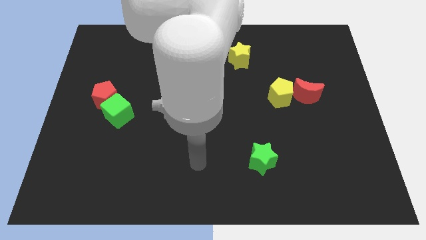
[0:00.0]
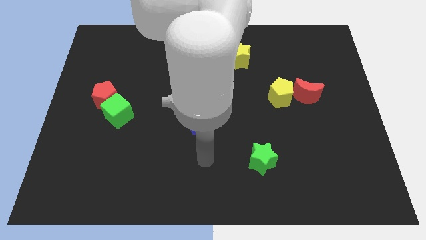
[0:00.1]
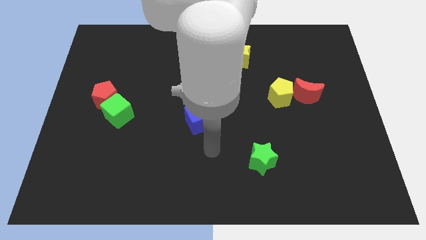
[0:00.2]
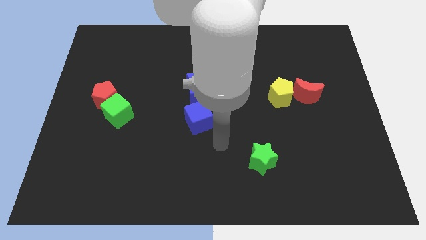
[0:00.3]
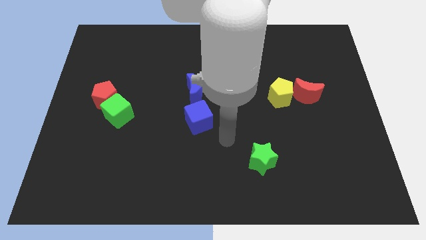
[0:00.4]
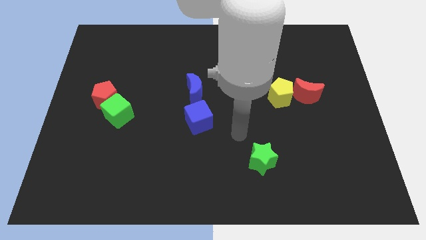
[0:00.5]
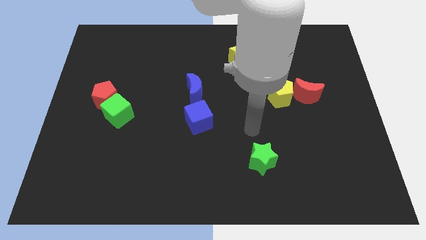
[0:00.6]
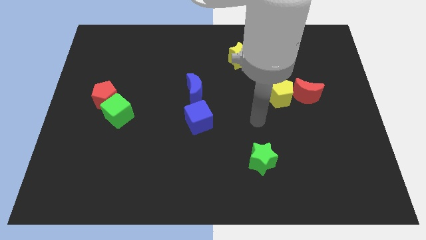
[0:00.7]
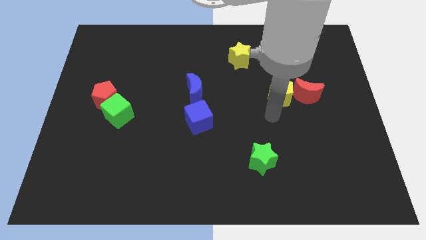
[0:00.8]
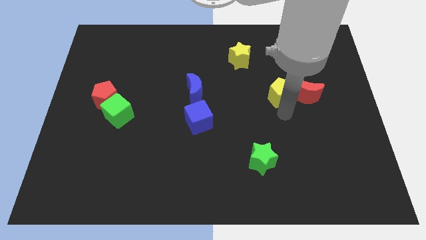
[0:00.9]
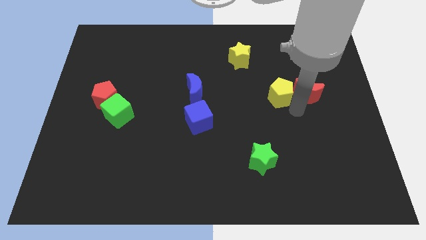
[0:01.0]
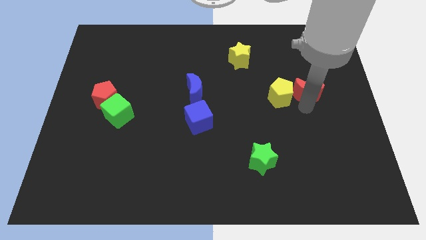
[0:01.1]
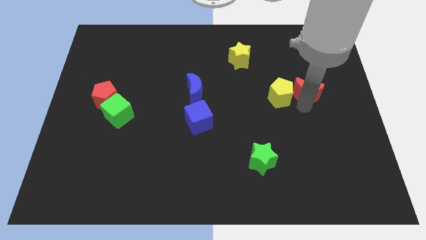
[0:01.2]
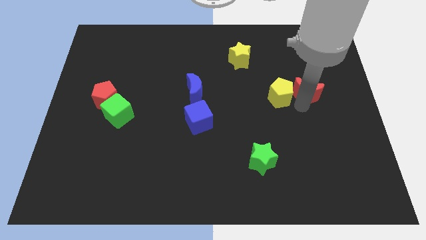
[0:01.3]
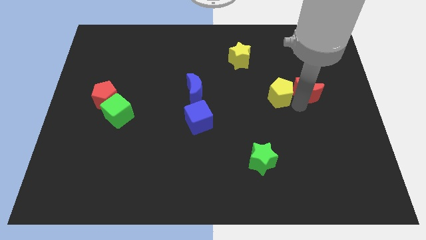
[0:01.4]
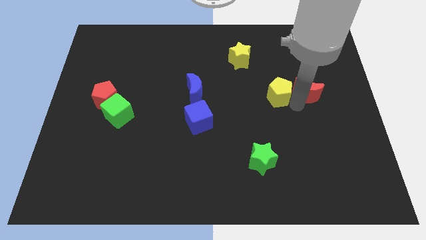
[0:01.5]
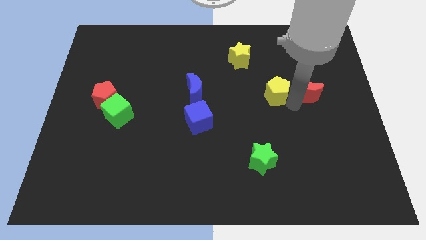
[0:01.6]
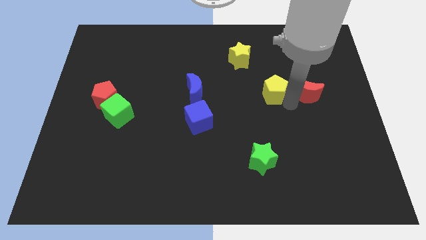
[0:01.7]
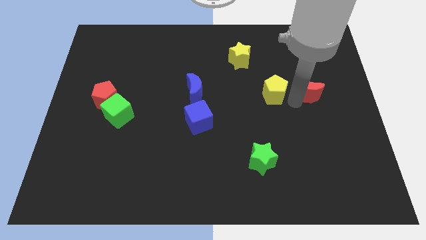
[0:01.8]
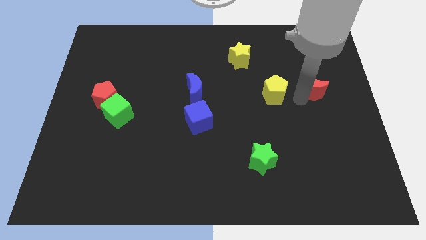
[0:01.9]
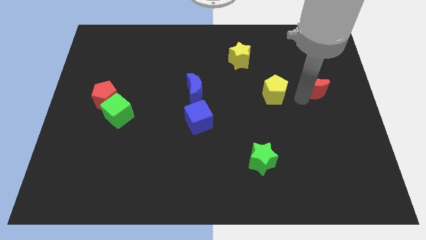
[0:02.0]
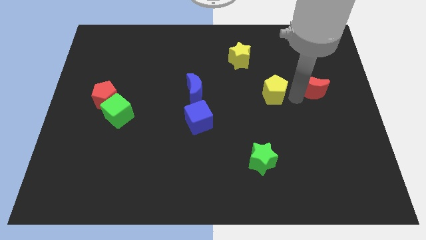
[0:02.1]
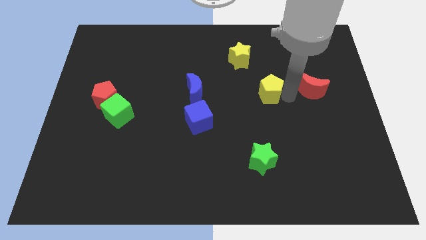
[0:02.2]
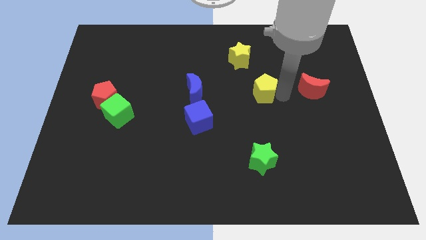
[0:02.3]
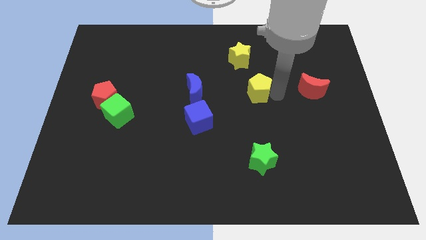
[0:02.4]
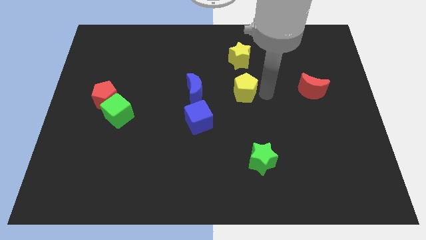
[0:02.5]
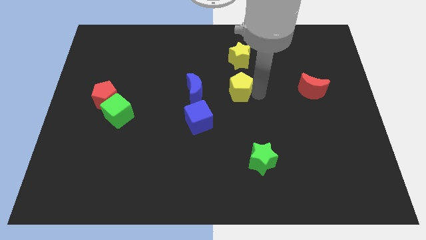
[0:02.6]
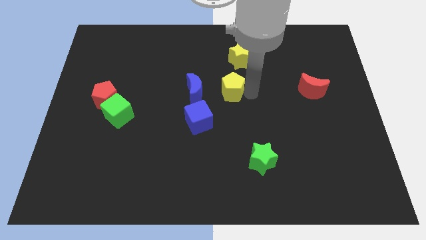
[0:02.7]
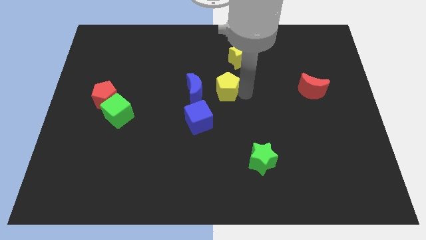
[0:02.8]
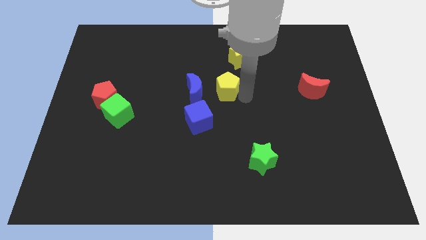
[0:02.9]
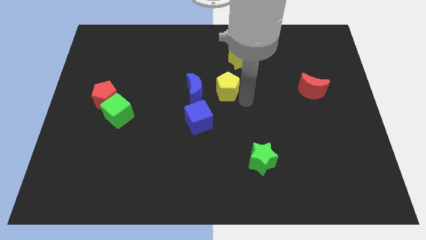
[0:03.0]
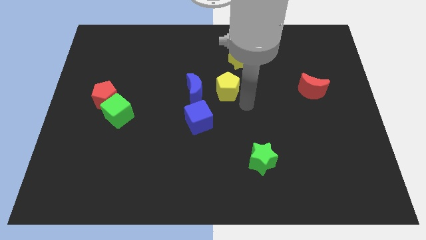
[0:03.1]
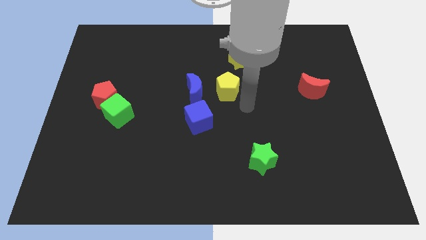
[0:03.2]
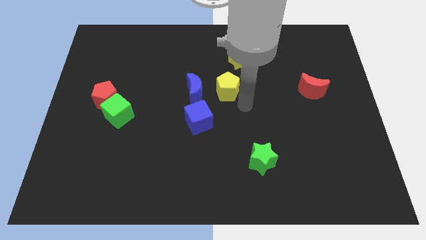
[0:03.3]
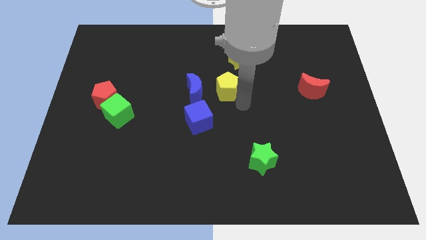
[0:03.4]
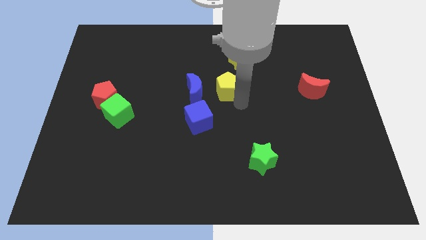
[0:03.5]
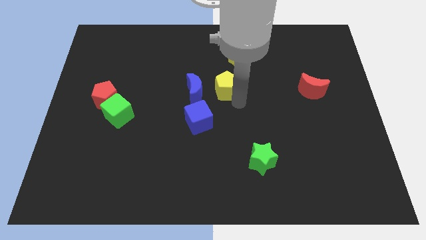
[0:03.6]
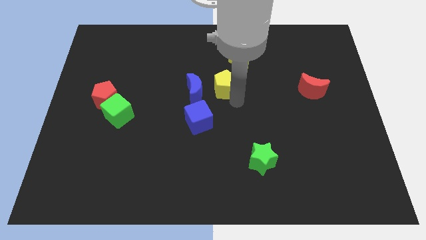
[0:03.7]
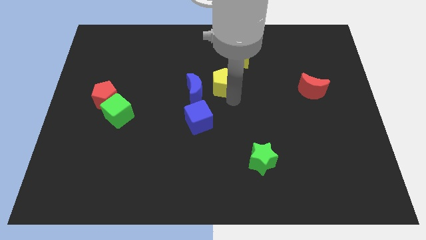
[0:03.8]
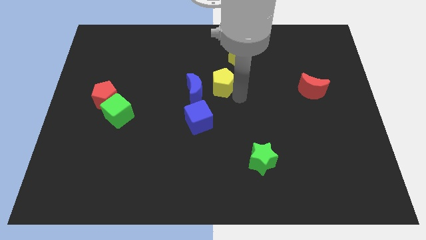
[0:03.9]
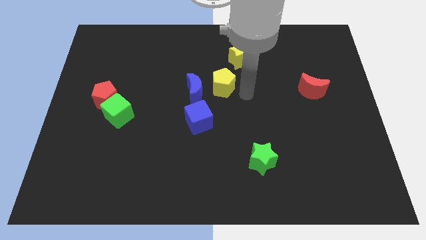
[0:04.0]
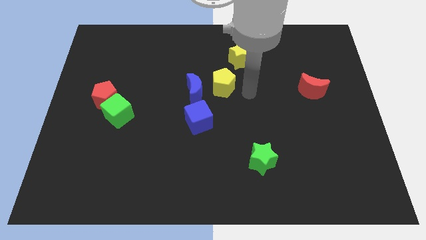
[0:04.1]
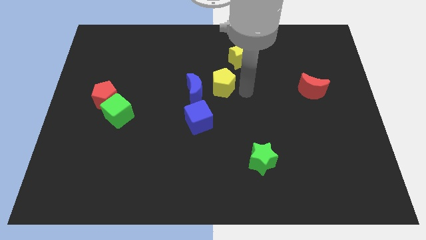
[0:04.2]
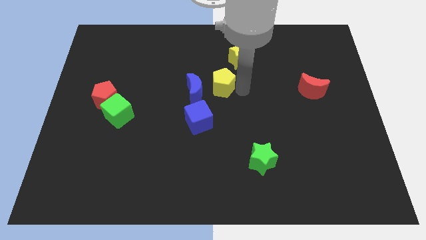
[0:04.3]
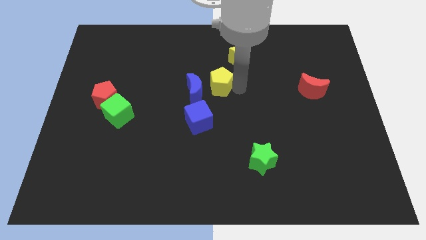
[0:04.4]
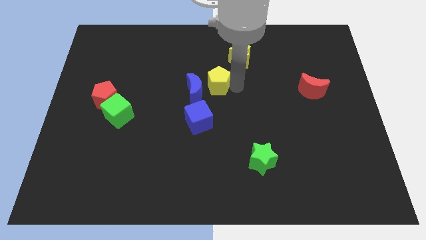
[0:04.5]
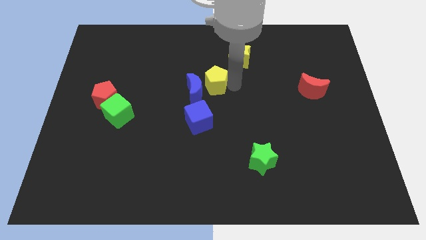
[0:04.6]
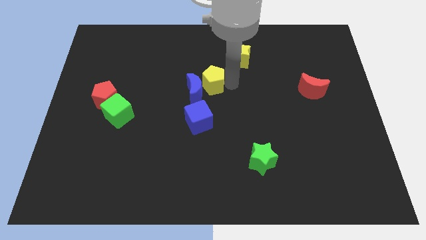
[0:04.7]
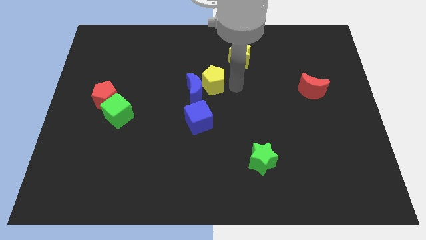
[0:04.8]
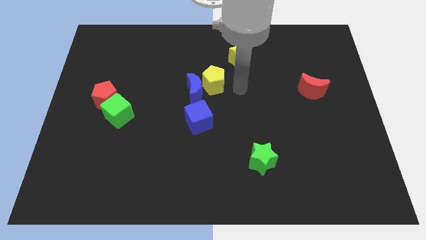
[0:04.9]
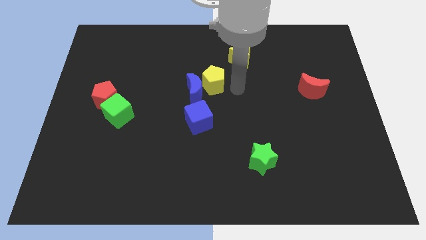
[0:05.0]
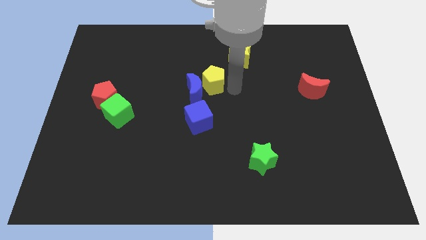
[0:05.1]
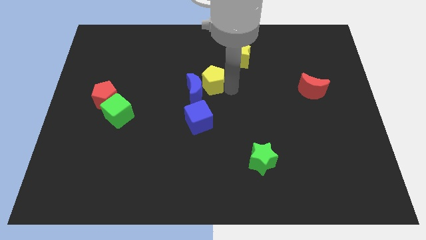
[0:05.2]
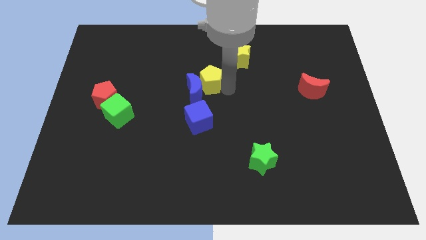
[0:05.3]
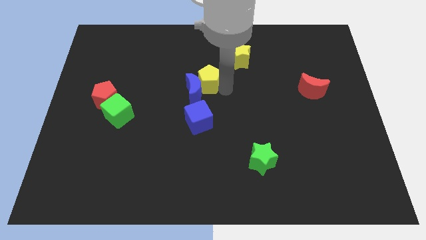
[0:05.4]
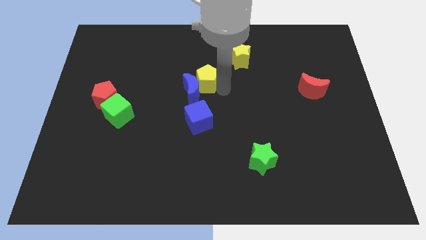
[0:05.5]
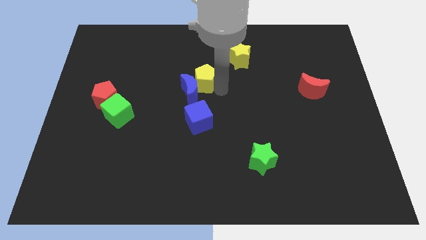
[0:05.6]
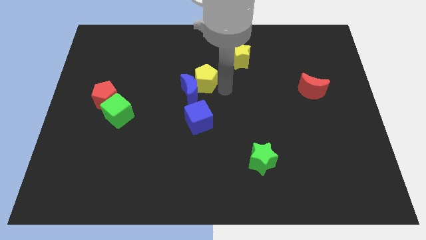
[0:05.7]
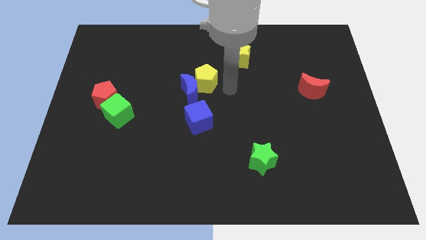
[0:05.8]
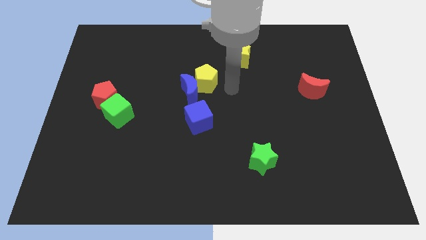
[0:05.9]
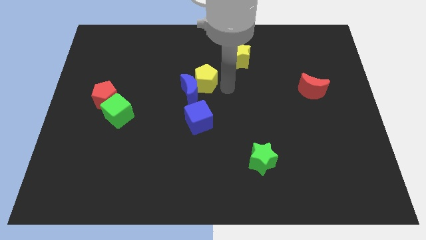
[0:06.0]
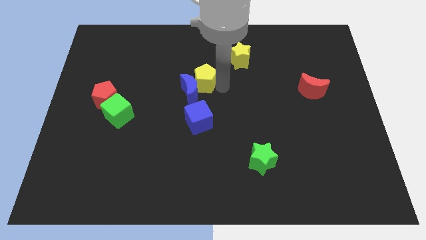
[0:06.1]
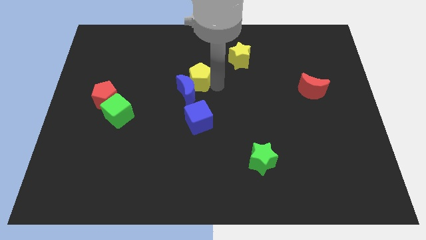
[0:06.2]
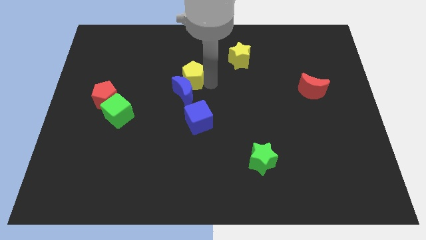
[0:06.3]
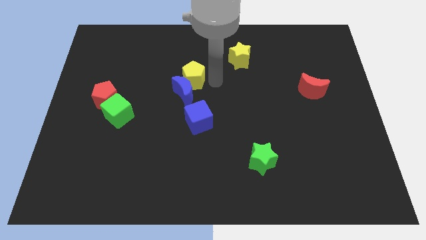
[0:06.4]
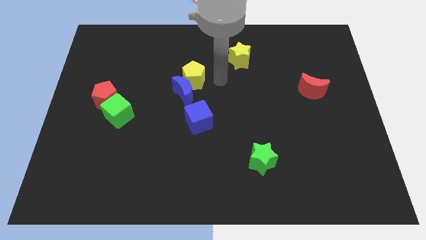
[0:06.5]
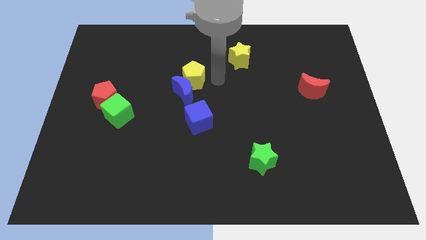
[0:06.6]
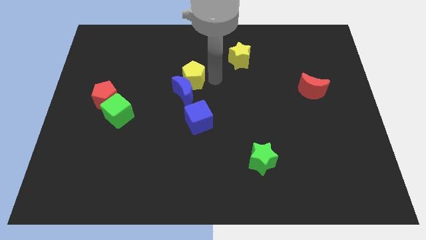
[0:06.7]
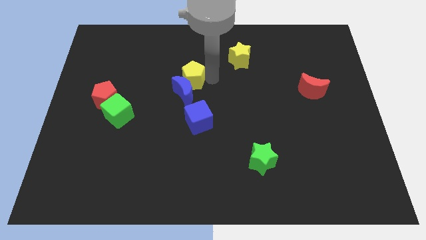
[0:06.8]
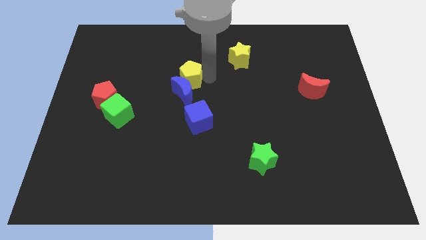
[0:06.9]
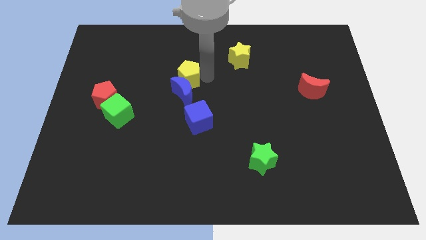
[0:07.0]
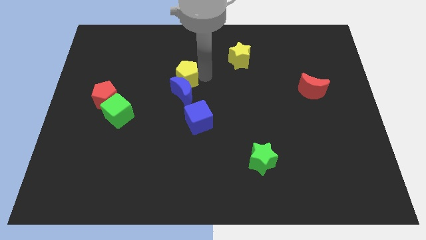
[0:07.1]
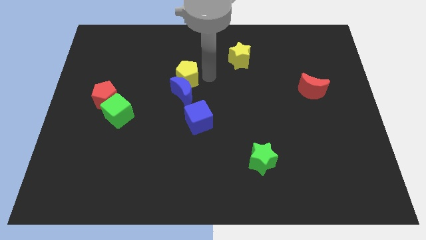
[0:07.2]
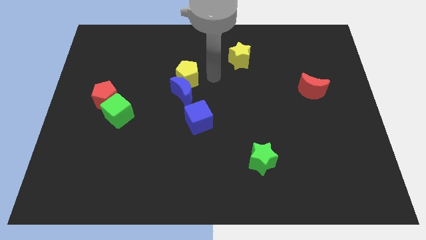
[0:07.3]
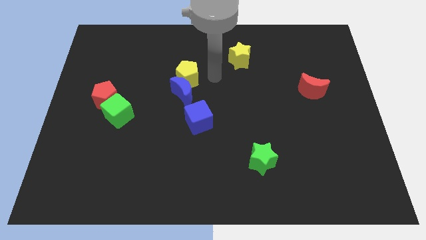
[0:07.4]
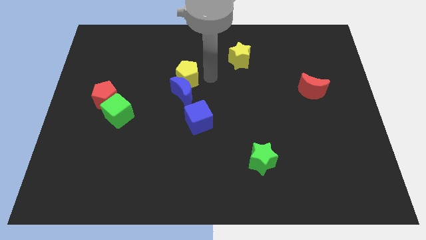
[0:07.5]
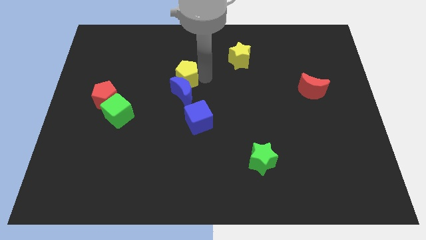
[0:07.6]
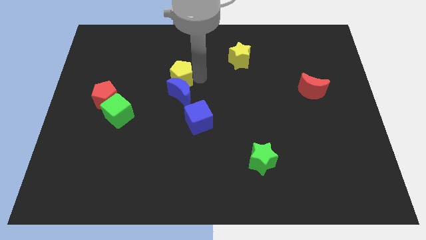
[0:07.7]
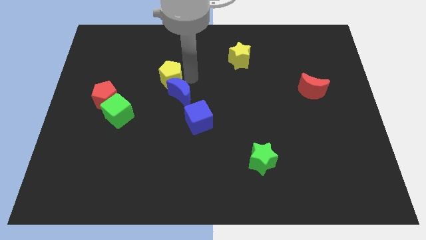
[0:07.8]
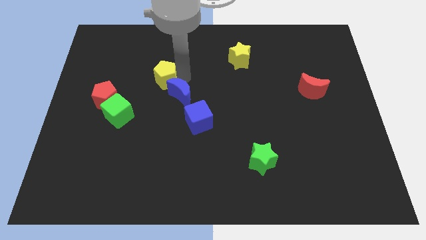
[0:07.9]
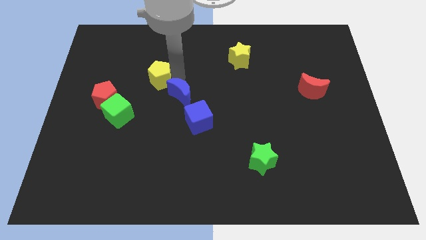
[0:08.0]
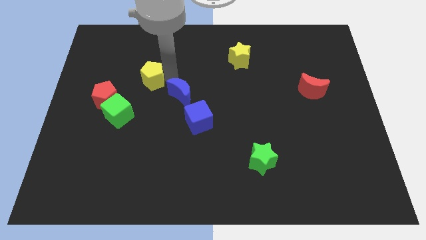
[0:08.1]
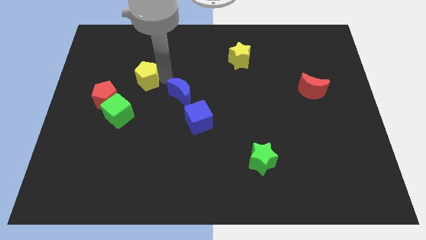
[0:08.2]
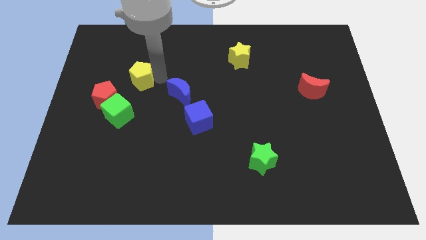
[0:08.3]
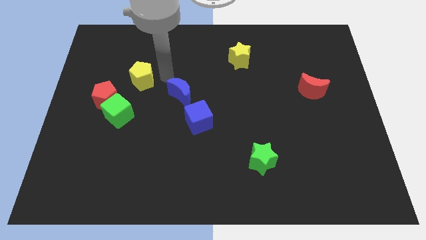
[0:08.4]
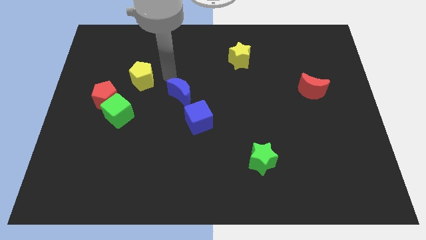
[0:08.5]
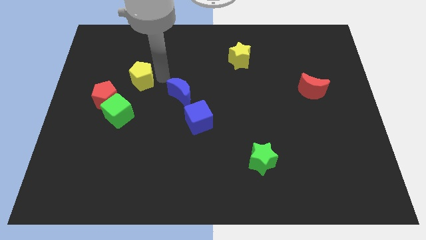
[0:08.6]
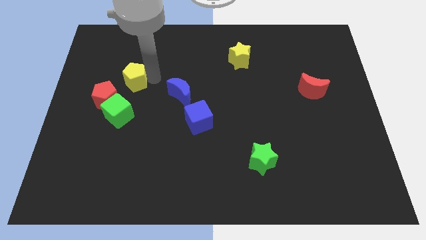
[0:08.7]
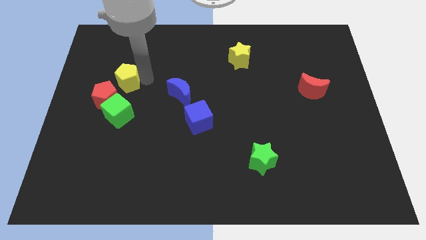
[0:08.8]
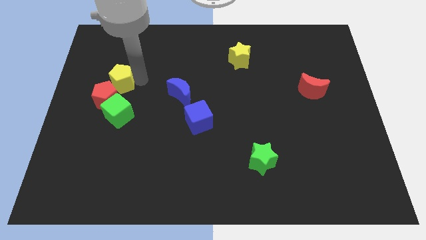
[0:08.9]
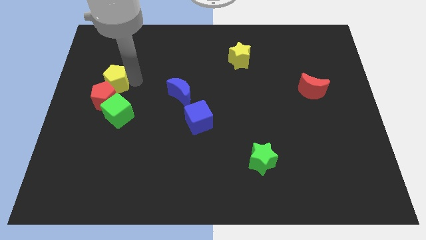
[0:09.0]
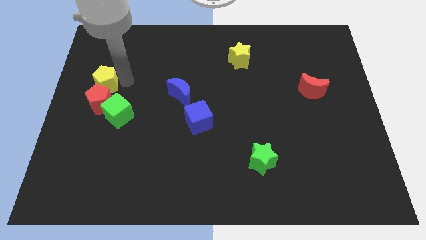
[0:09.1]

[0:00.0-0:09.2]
move the yellow pentagon to the left side
